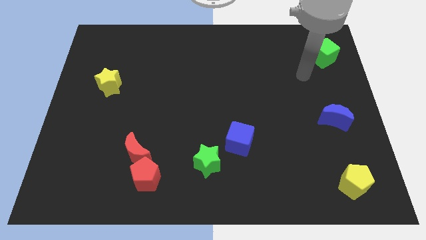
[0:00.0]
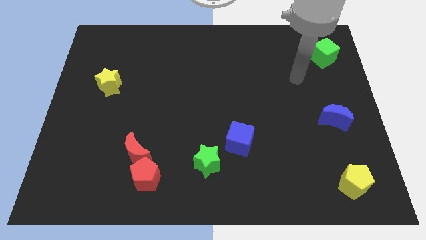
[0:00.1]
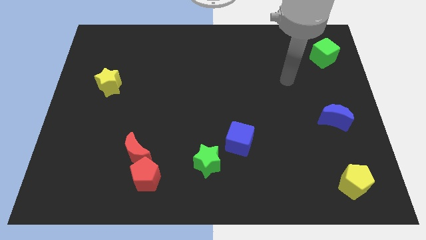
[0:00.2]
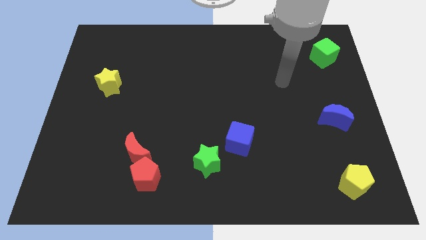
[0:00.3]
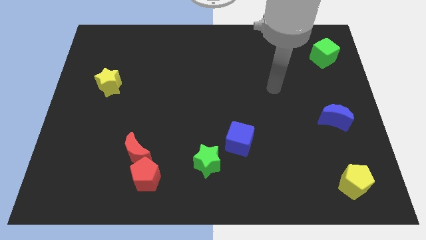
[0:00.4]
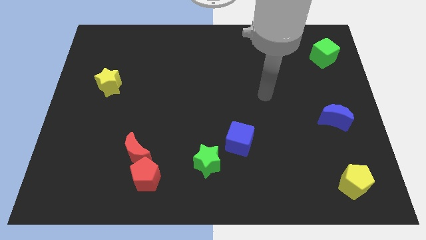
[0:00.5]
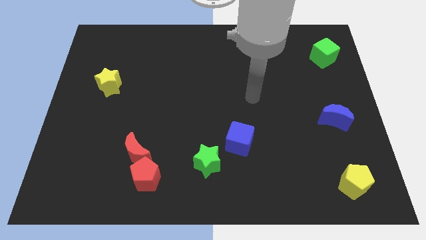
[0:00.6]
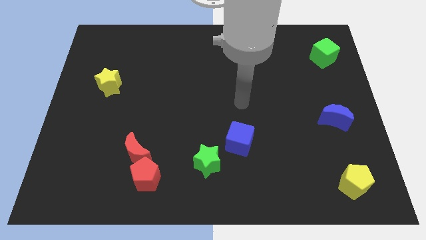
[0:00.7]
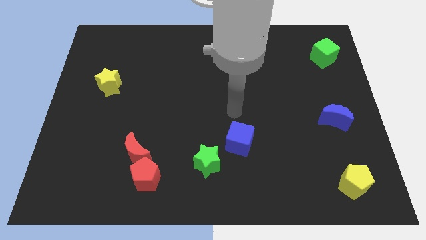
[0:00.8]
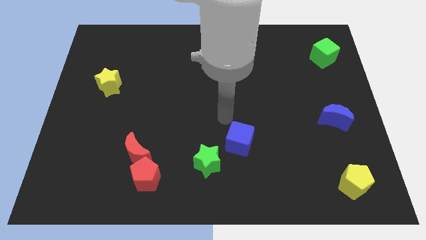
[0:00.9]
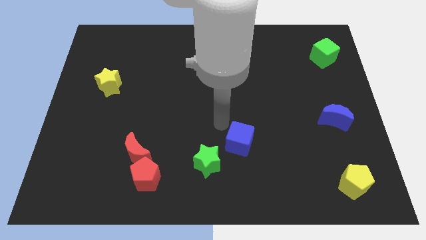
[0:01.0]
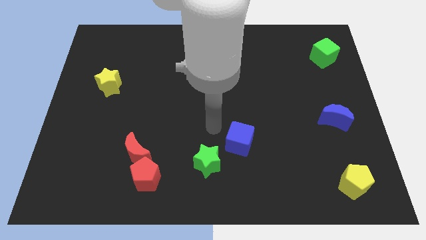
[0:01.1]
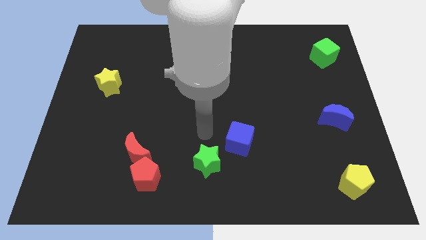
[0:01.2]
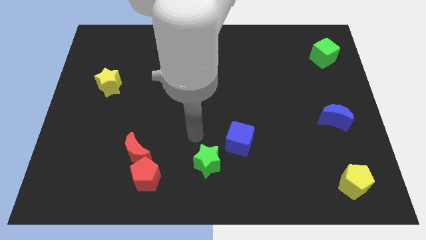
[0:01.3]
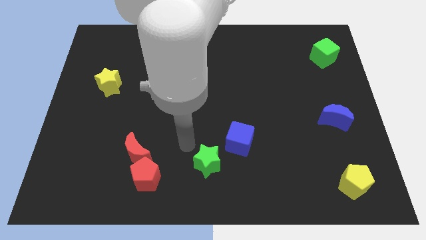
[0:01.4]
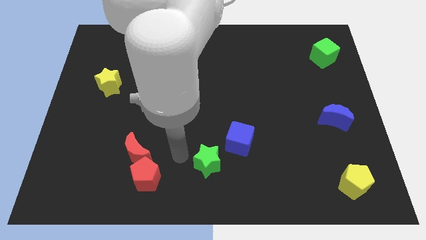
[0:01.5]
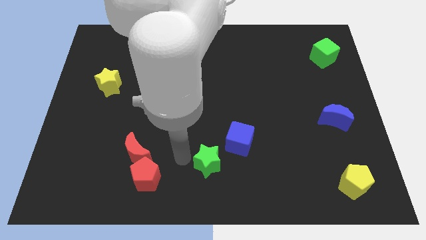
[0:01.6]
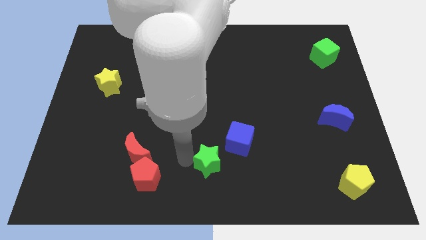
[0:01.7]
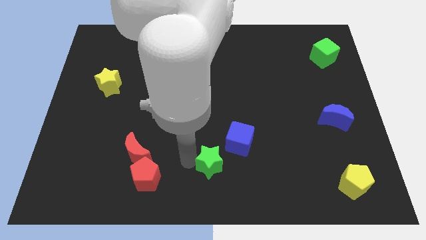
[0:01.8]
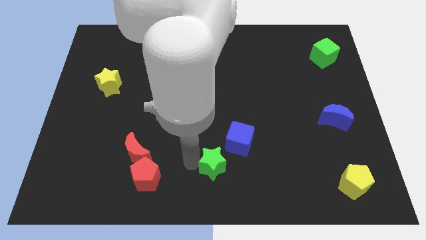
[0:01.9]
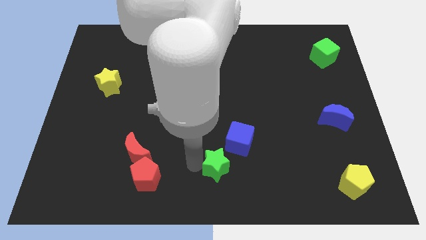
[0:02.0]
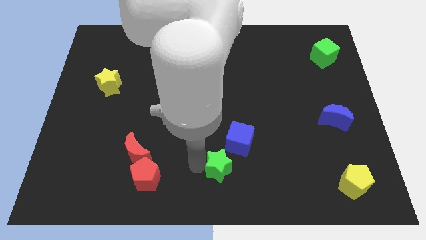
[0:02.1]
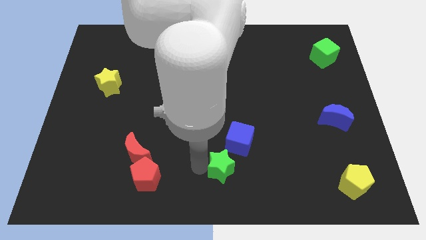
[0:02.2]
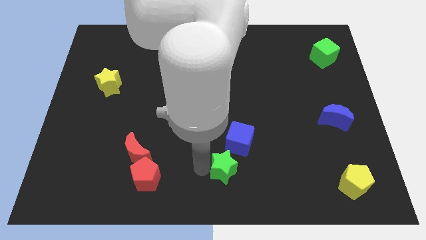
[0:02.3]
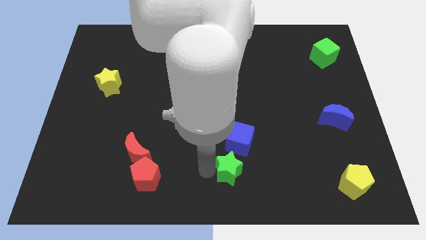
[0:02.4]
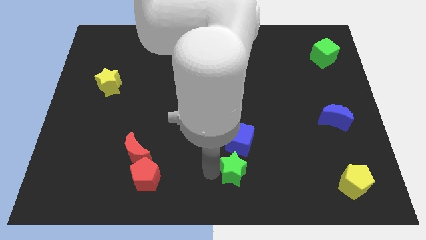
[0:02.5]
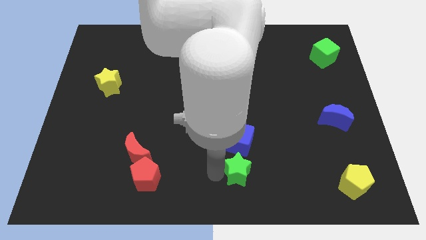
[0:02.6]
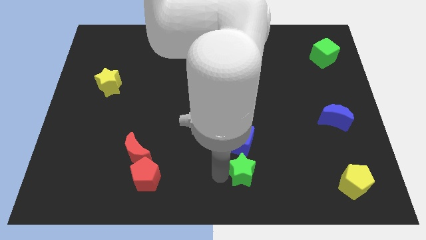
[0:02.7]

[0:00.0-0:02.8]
slide the green star a little right

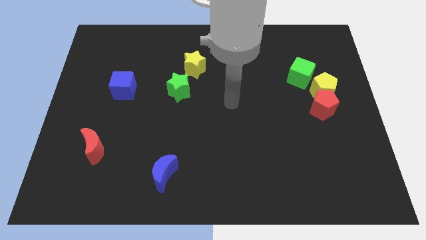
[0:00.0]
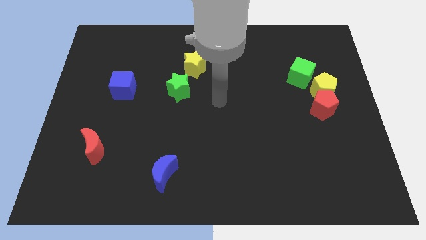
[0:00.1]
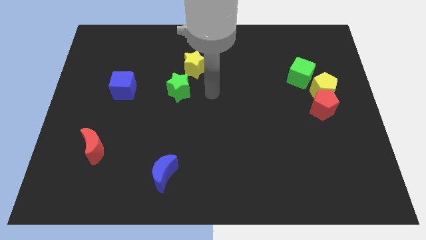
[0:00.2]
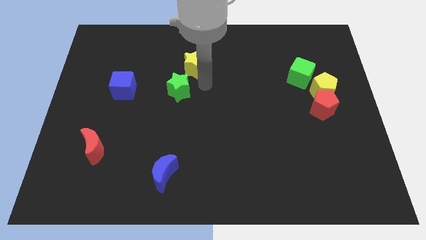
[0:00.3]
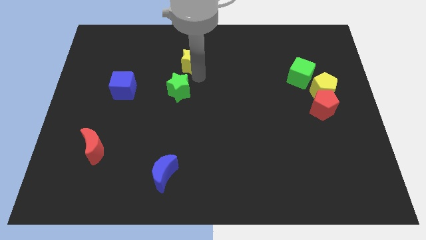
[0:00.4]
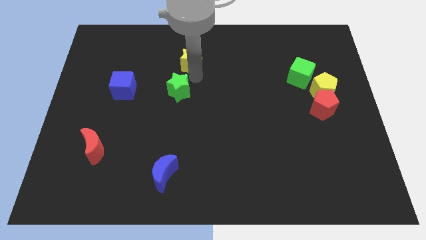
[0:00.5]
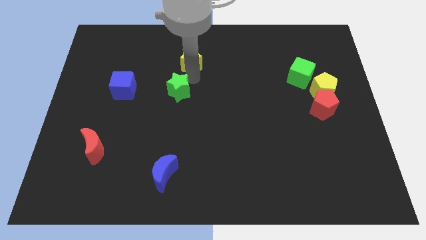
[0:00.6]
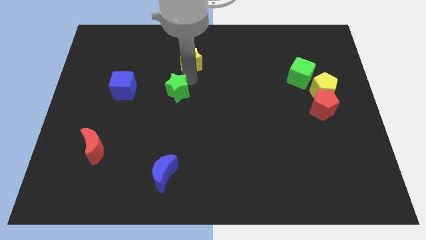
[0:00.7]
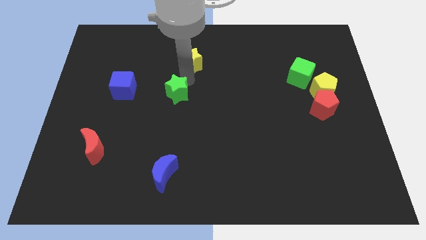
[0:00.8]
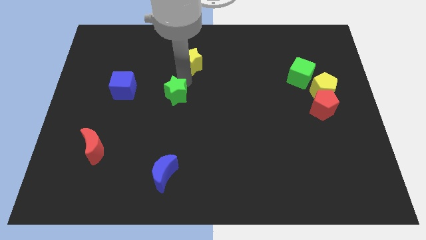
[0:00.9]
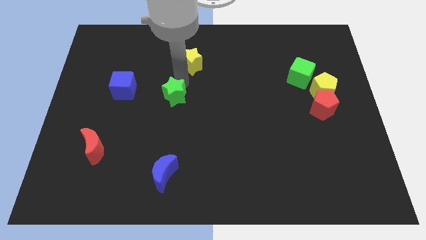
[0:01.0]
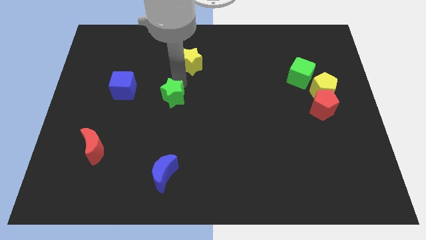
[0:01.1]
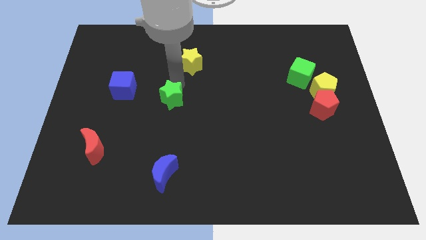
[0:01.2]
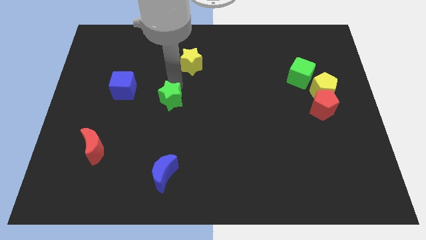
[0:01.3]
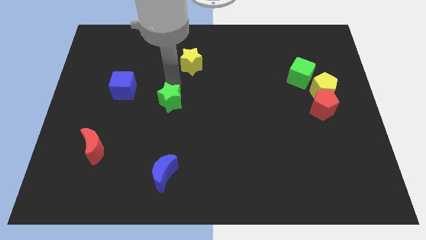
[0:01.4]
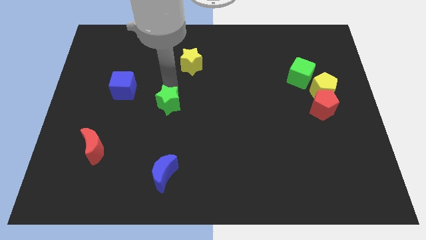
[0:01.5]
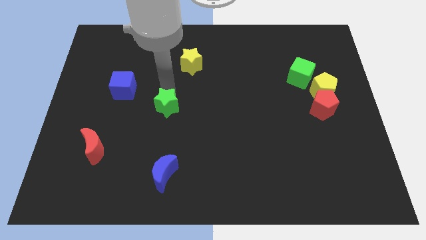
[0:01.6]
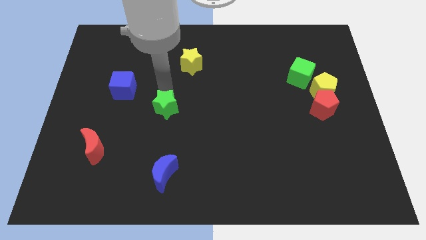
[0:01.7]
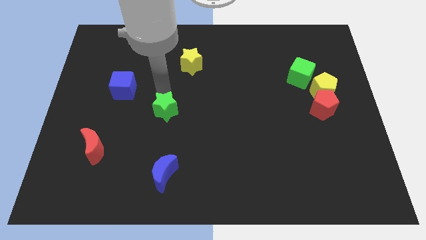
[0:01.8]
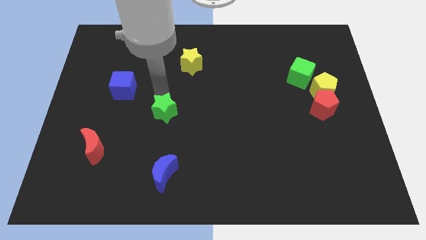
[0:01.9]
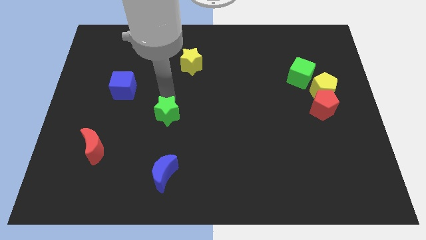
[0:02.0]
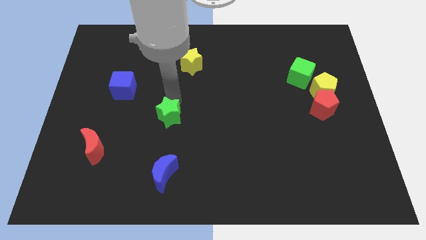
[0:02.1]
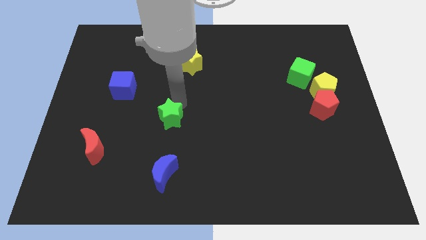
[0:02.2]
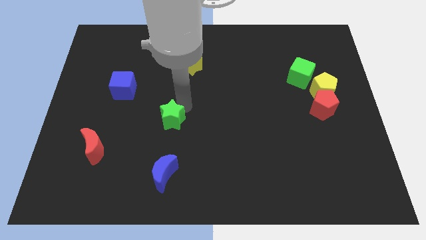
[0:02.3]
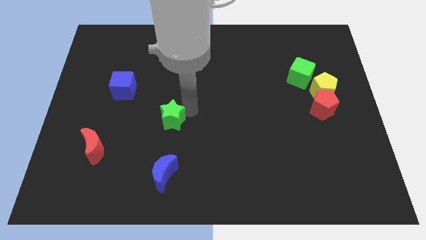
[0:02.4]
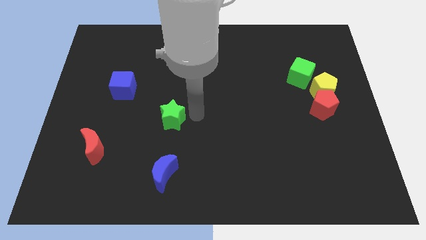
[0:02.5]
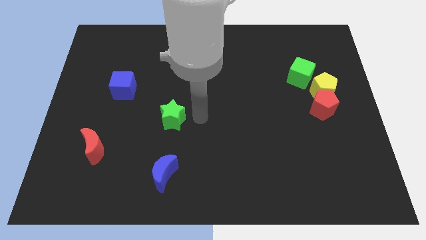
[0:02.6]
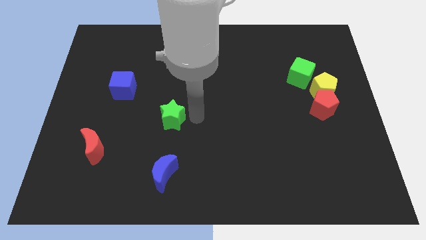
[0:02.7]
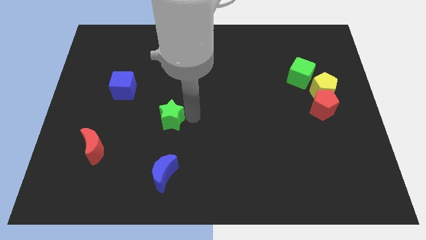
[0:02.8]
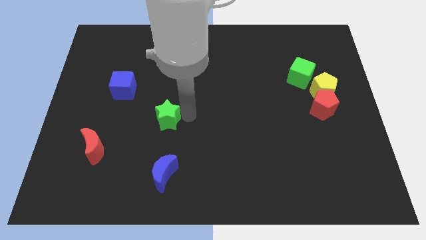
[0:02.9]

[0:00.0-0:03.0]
push the green star diagonally down and left a bit

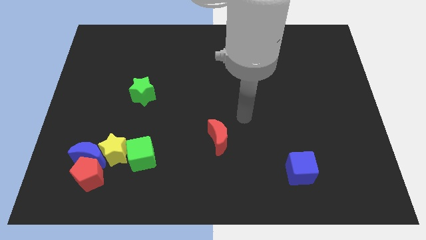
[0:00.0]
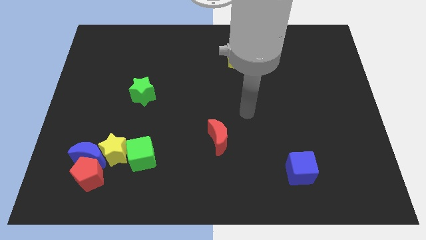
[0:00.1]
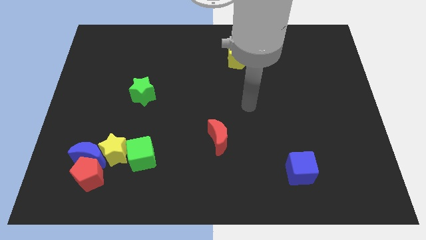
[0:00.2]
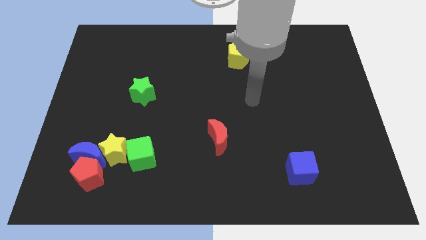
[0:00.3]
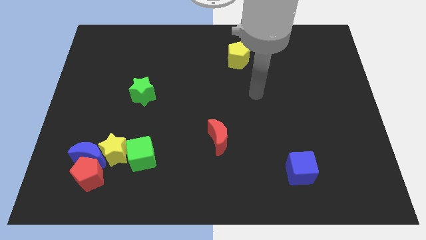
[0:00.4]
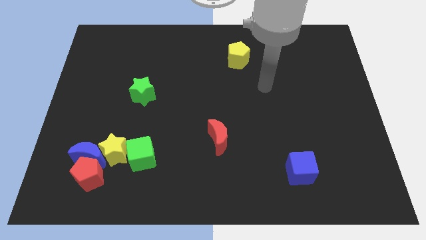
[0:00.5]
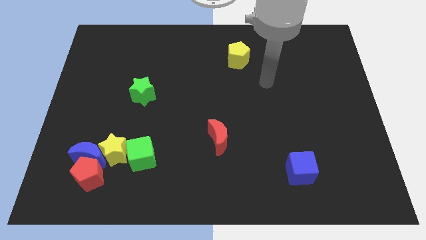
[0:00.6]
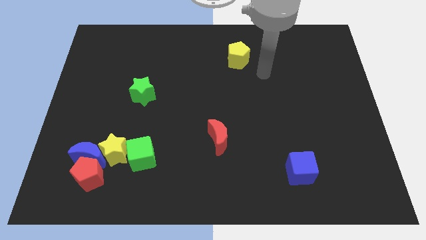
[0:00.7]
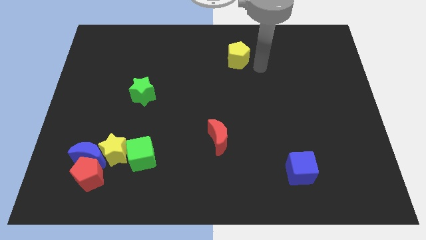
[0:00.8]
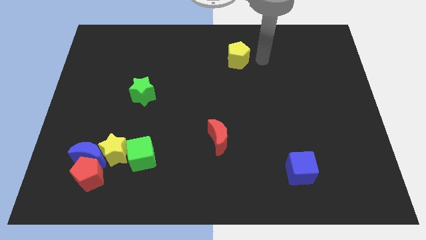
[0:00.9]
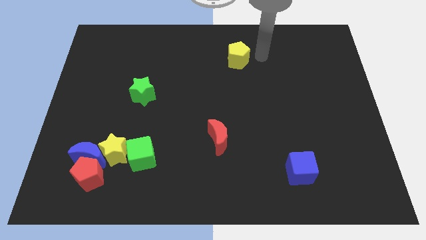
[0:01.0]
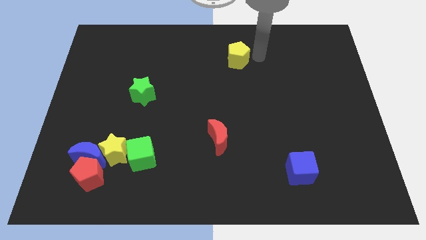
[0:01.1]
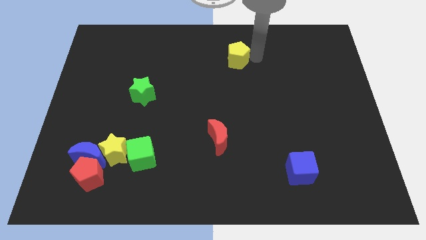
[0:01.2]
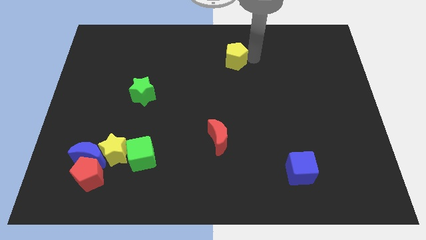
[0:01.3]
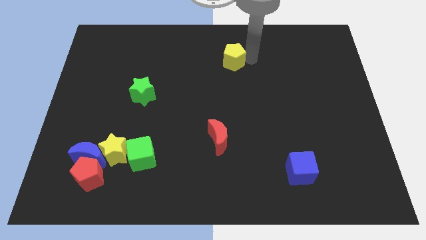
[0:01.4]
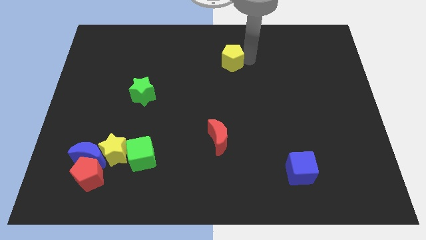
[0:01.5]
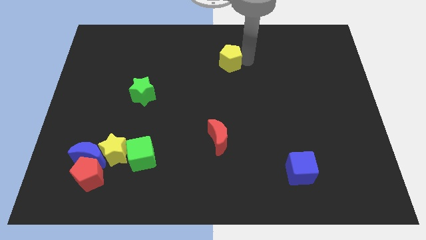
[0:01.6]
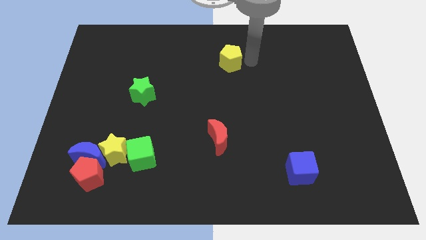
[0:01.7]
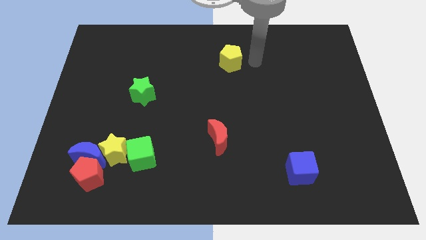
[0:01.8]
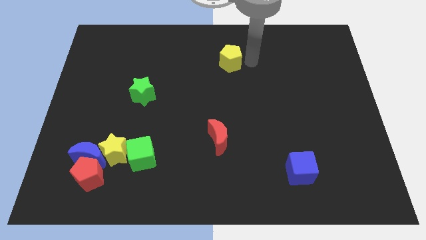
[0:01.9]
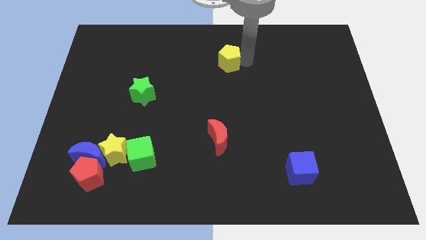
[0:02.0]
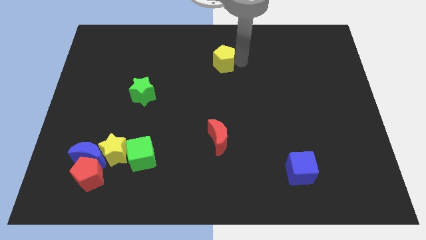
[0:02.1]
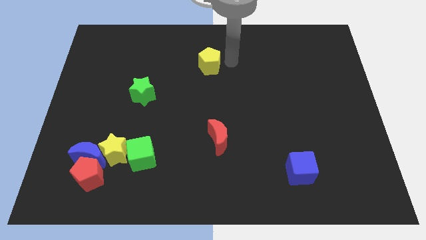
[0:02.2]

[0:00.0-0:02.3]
slightly slide the yellow pentagon to the left

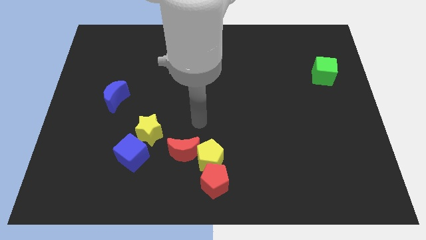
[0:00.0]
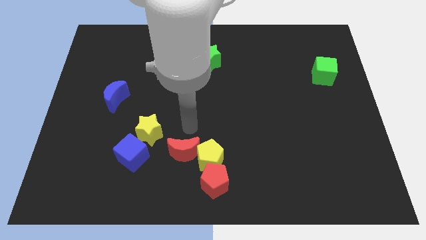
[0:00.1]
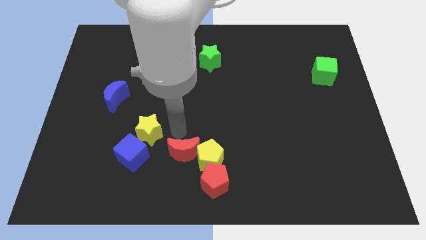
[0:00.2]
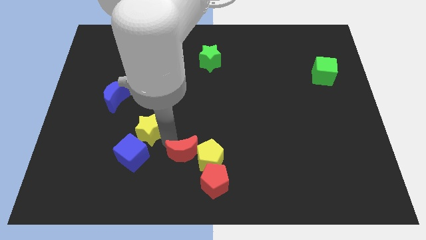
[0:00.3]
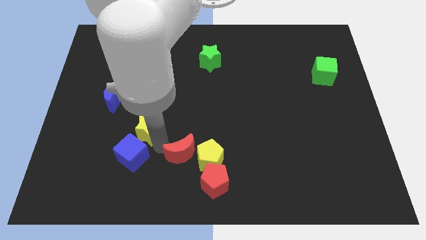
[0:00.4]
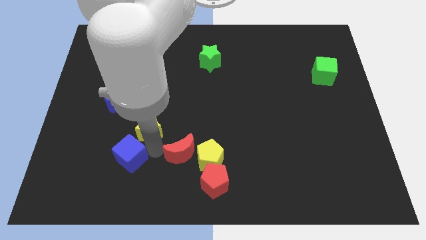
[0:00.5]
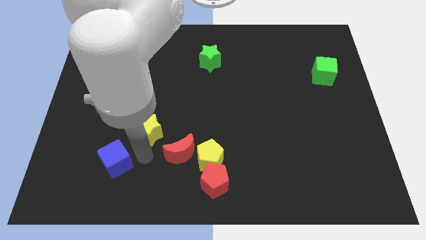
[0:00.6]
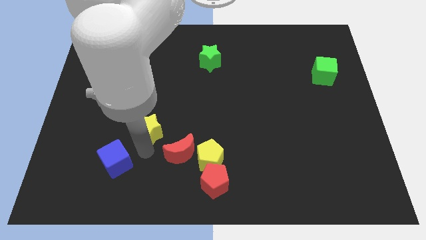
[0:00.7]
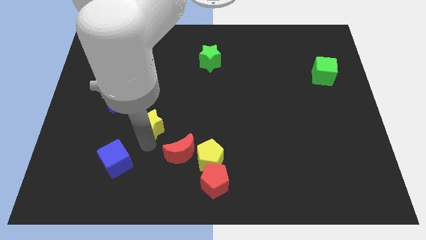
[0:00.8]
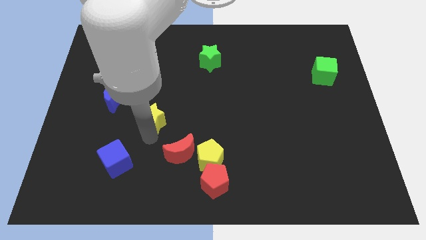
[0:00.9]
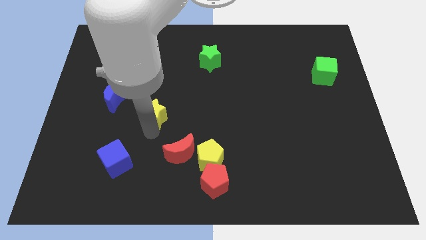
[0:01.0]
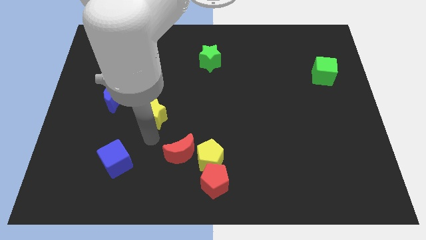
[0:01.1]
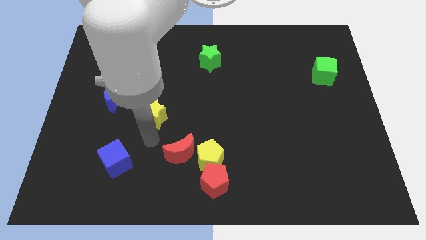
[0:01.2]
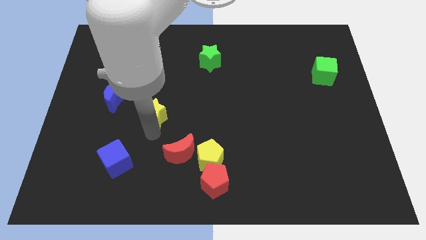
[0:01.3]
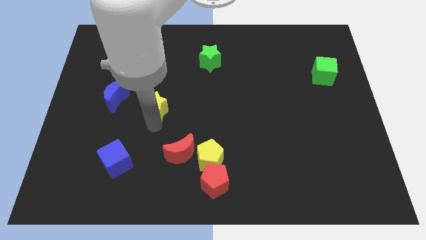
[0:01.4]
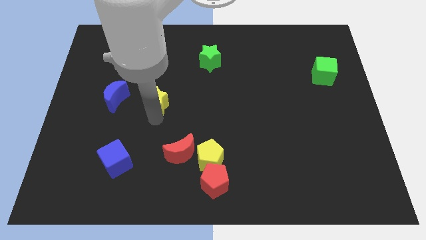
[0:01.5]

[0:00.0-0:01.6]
slightly slide the yellow star up
